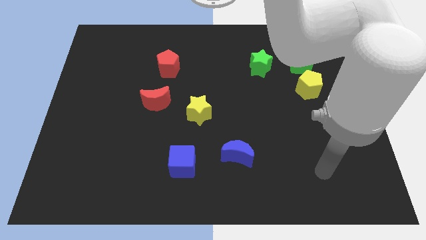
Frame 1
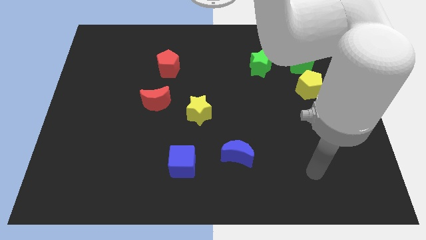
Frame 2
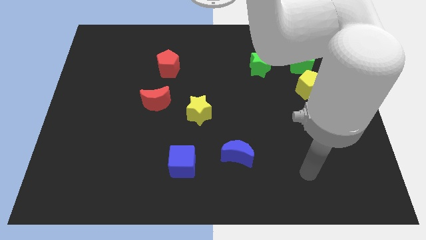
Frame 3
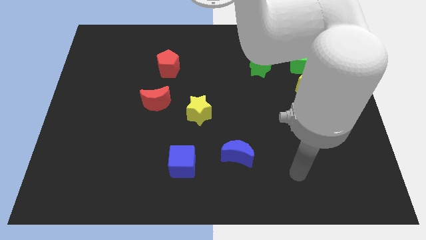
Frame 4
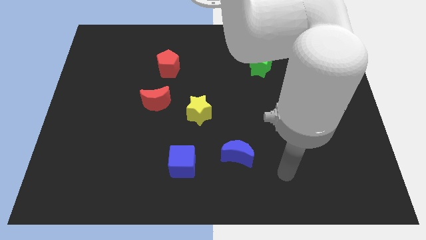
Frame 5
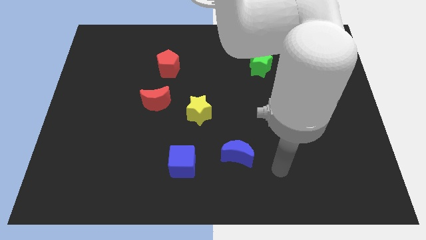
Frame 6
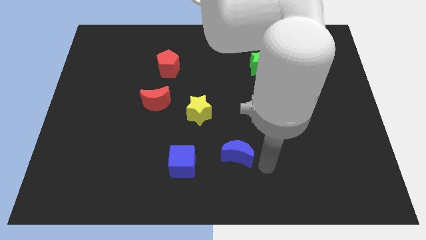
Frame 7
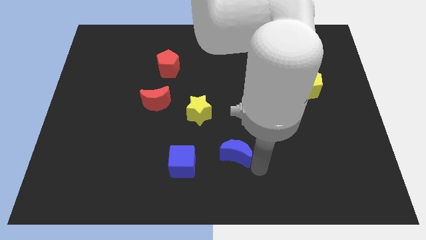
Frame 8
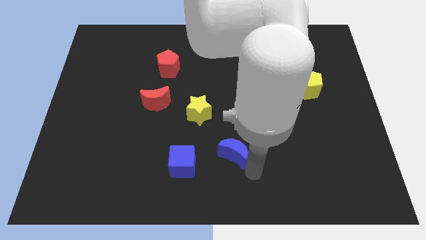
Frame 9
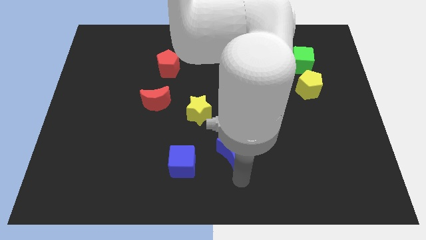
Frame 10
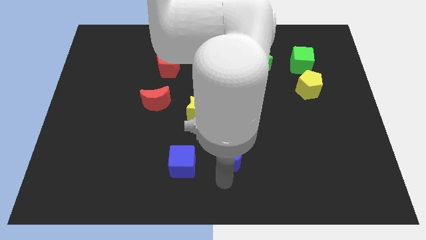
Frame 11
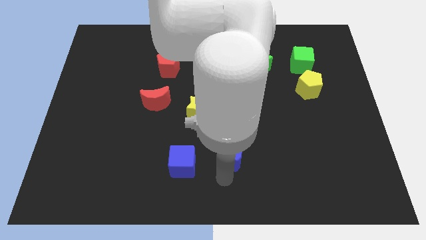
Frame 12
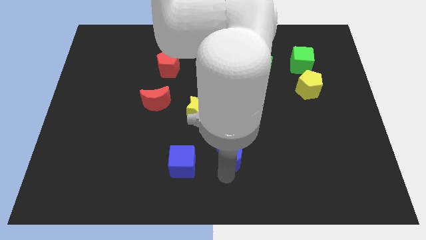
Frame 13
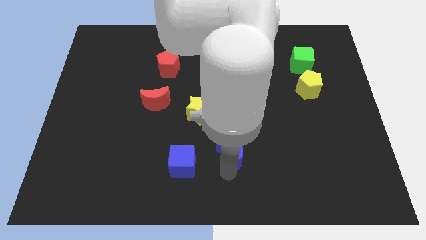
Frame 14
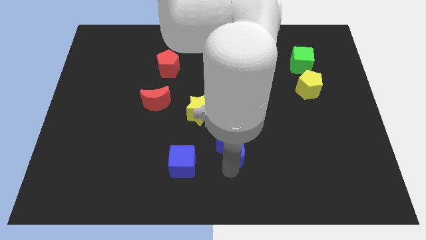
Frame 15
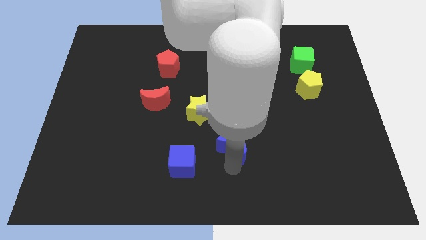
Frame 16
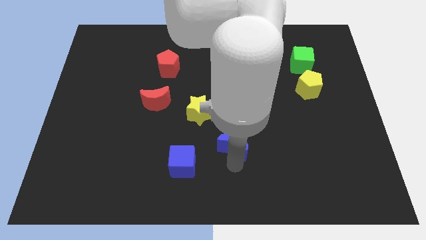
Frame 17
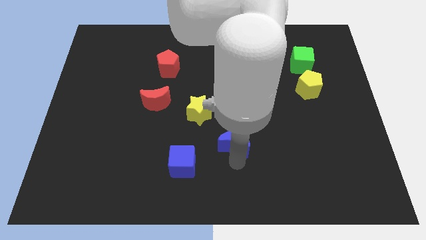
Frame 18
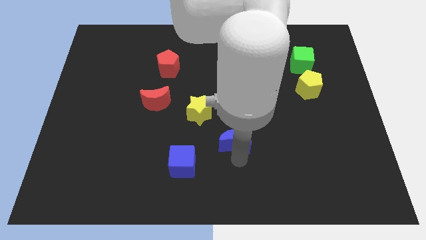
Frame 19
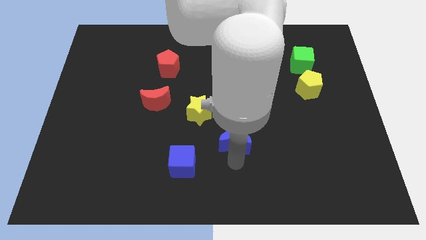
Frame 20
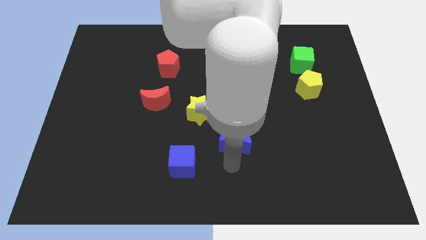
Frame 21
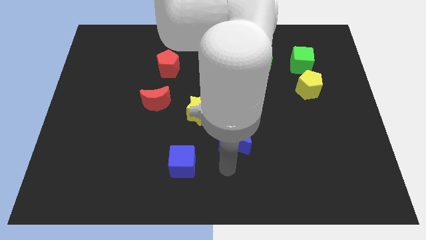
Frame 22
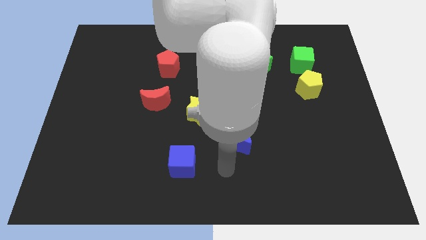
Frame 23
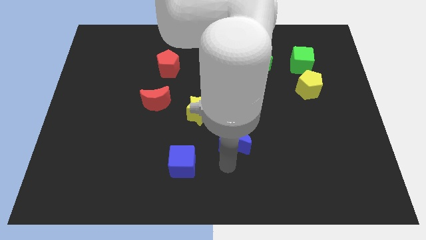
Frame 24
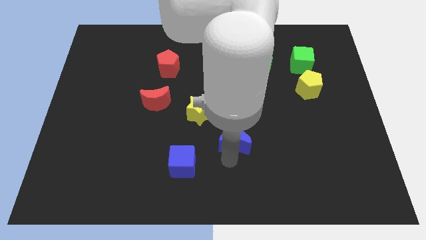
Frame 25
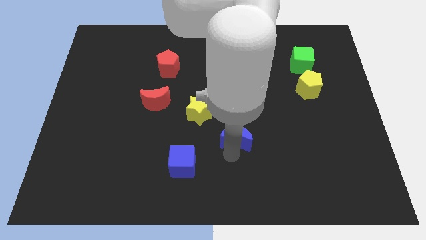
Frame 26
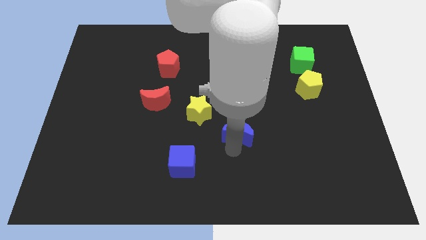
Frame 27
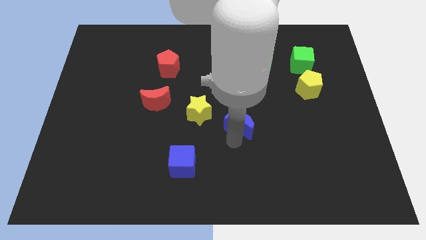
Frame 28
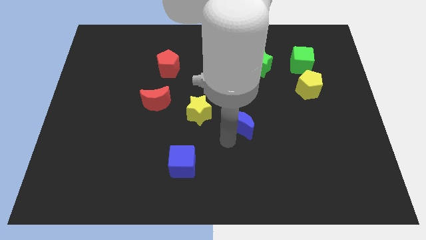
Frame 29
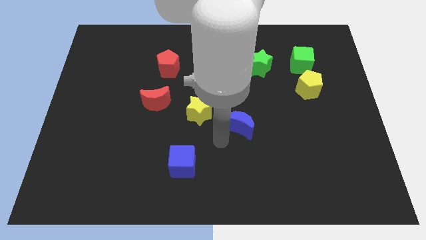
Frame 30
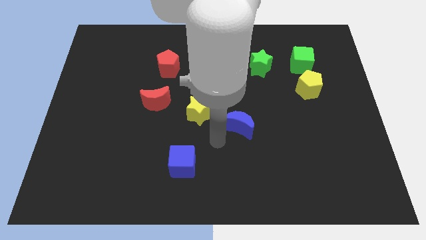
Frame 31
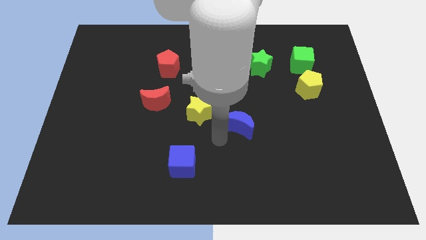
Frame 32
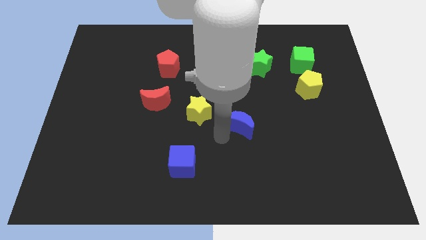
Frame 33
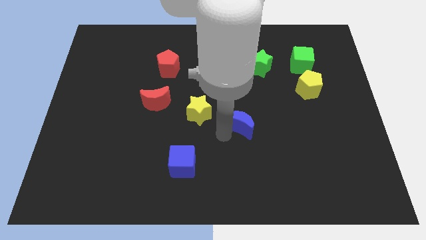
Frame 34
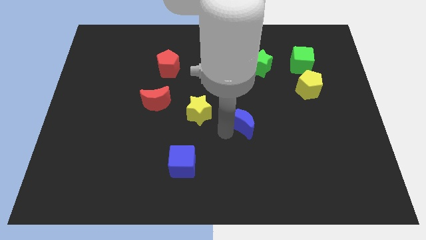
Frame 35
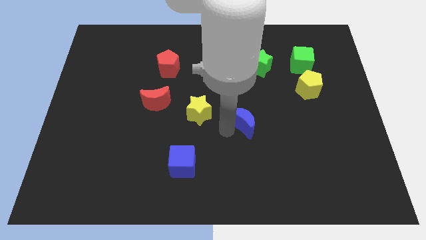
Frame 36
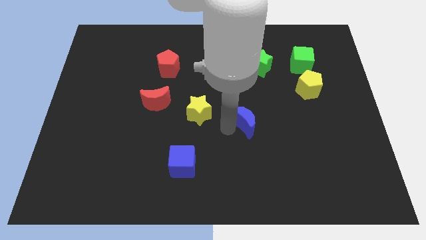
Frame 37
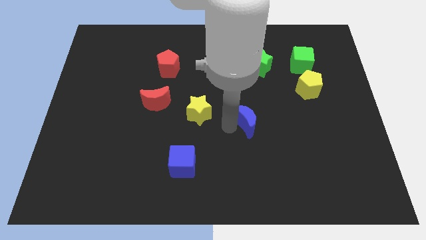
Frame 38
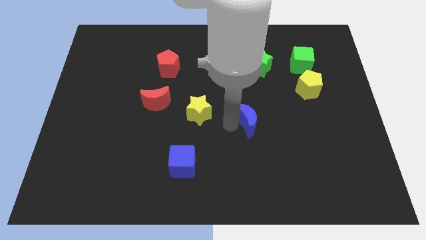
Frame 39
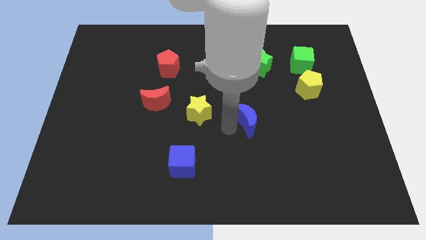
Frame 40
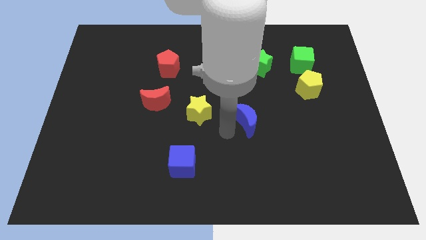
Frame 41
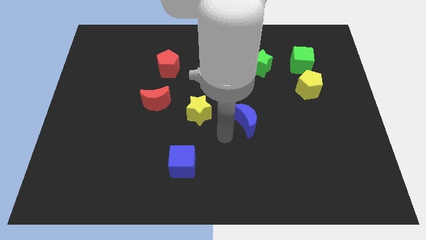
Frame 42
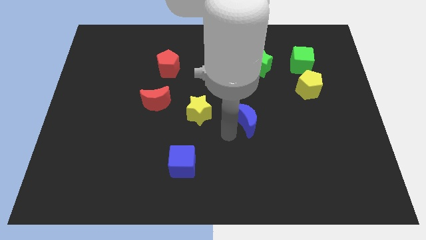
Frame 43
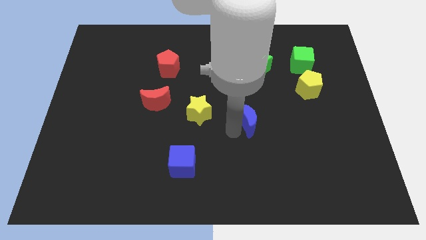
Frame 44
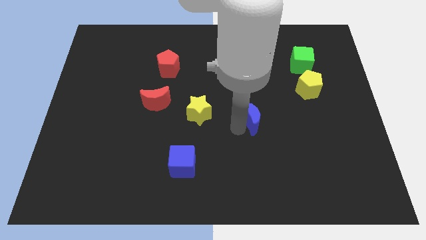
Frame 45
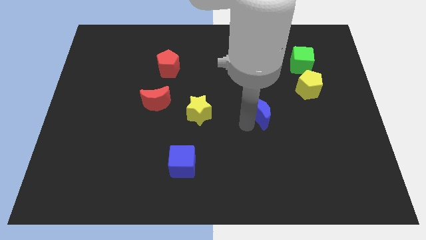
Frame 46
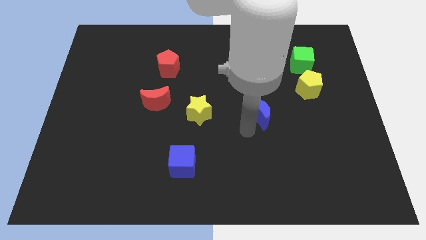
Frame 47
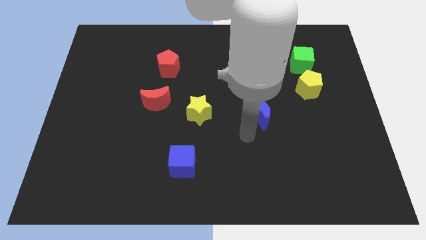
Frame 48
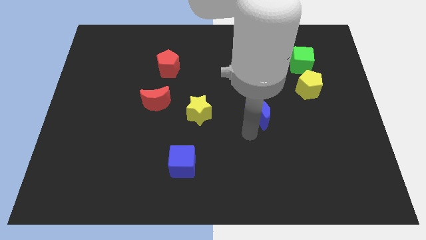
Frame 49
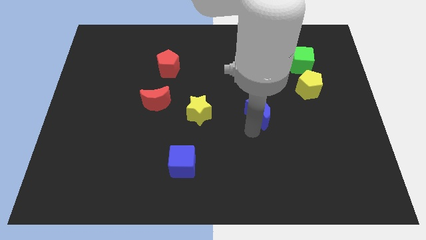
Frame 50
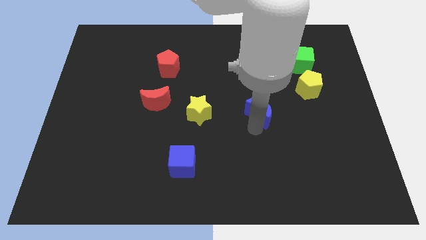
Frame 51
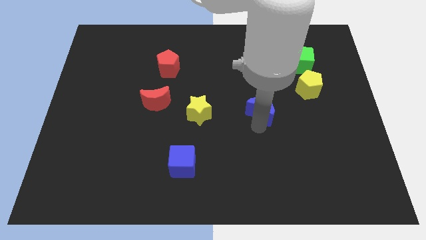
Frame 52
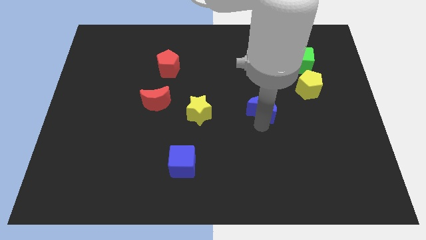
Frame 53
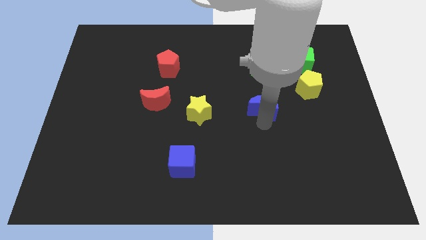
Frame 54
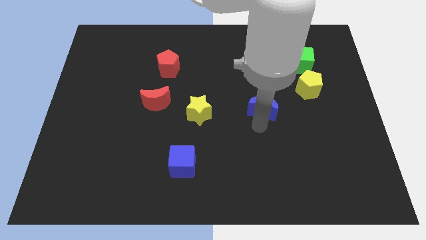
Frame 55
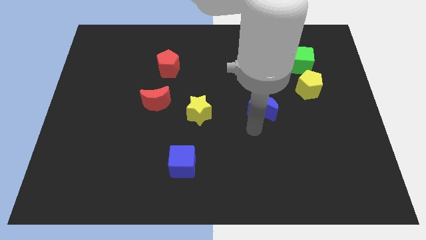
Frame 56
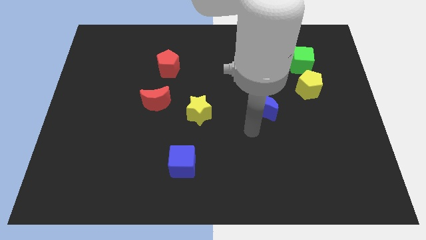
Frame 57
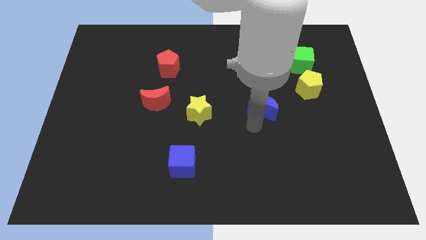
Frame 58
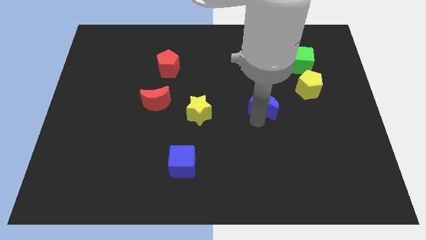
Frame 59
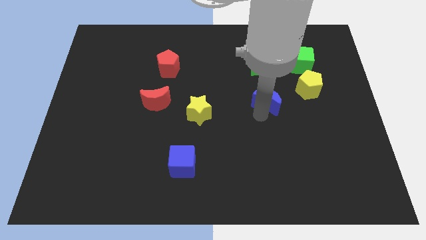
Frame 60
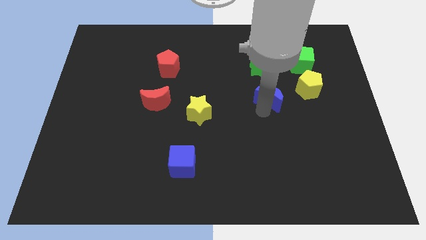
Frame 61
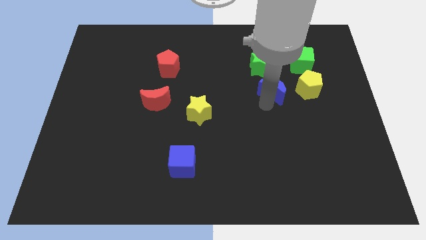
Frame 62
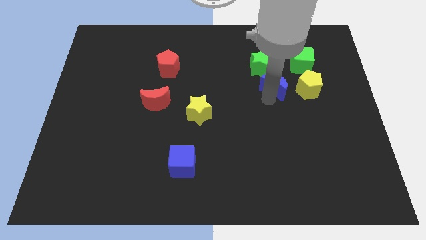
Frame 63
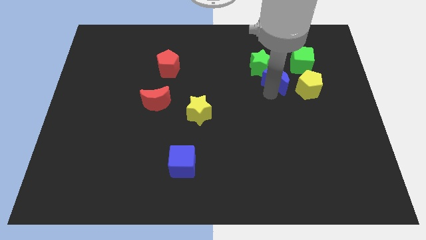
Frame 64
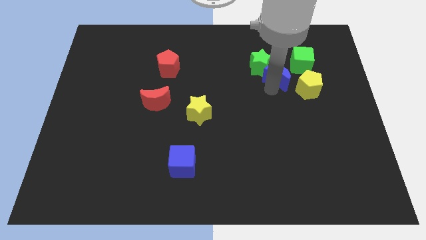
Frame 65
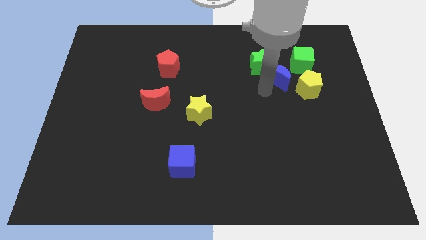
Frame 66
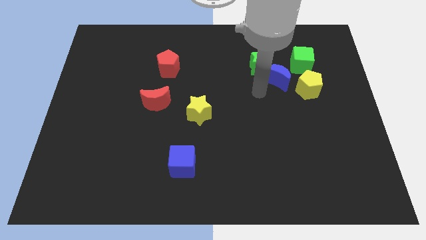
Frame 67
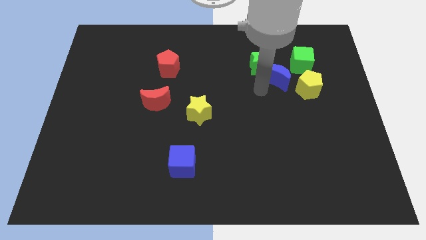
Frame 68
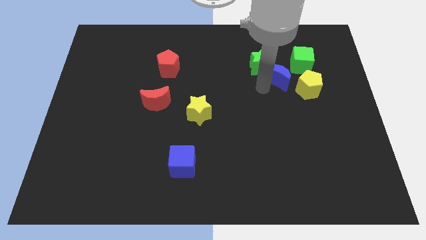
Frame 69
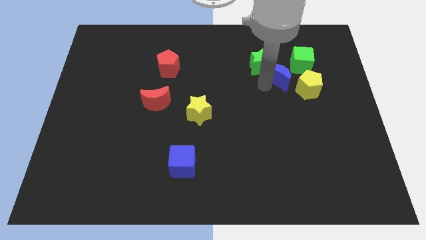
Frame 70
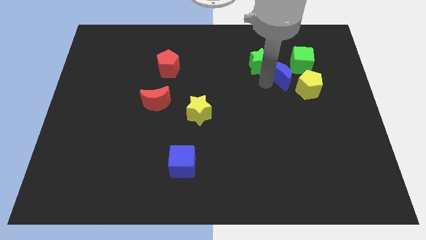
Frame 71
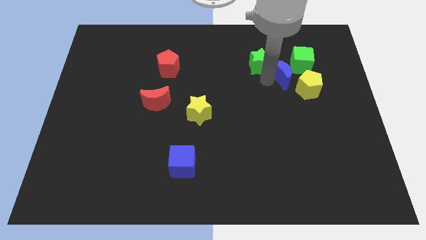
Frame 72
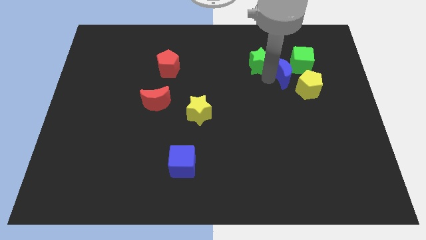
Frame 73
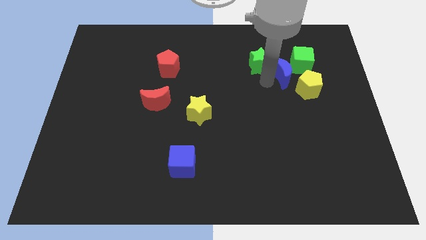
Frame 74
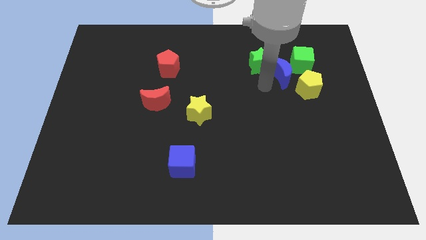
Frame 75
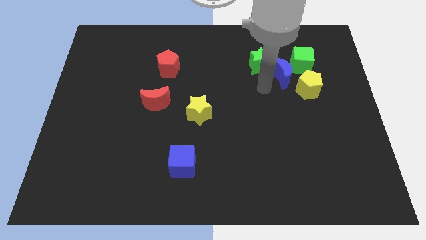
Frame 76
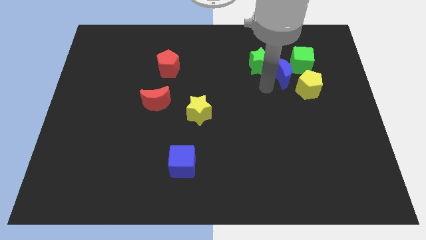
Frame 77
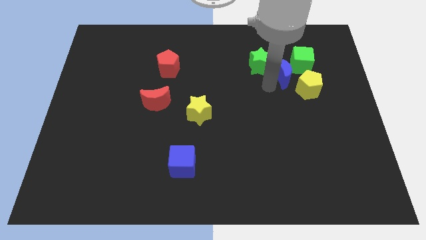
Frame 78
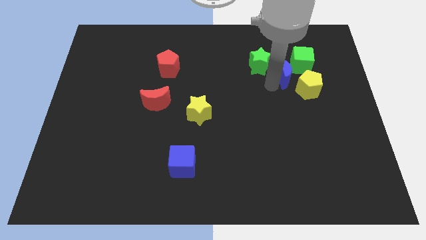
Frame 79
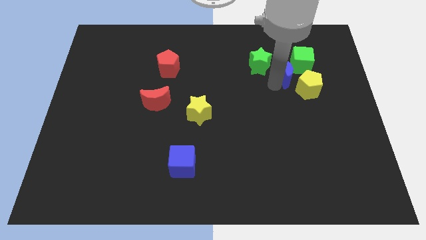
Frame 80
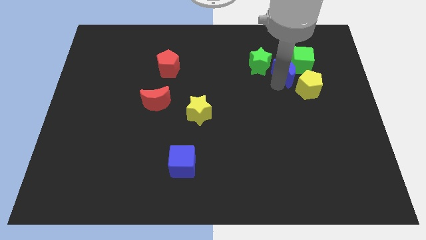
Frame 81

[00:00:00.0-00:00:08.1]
slide the blue moon close to the green cube
